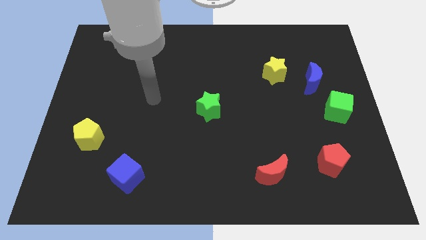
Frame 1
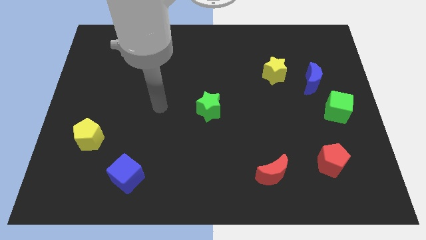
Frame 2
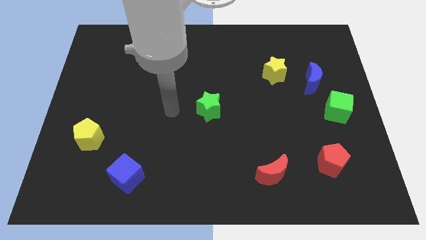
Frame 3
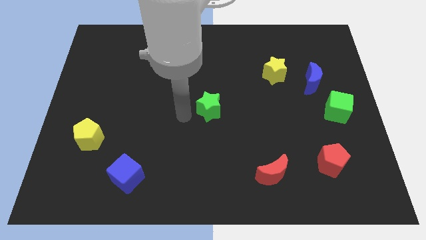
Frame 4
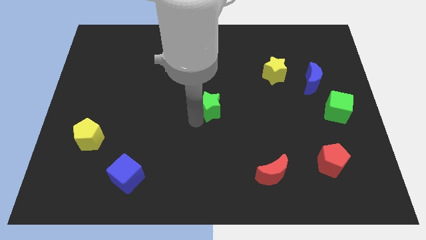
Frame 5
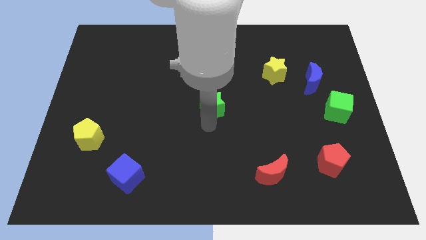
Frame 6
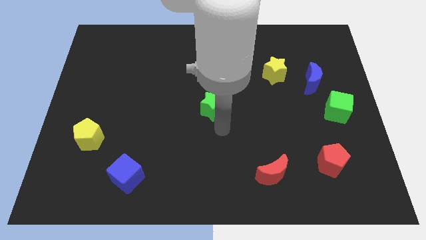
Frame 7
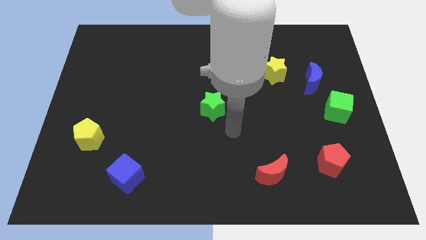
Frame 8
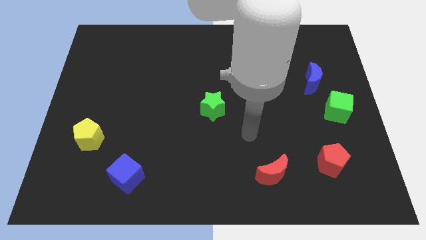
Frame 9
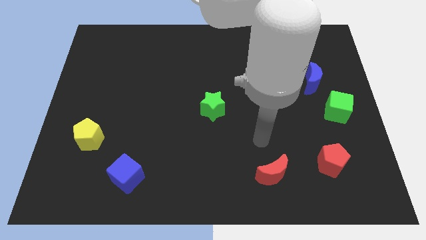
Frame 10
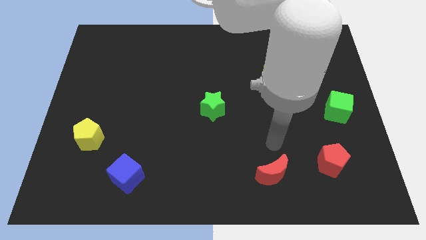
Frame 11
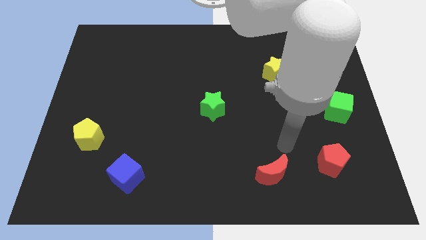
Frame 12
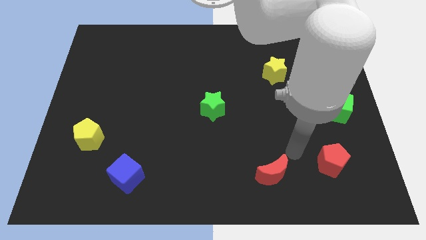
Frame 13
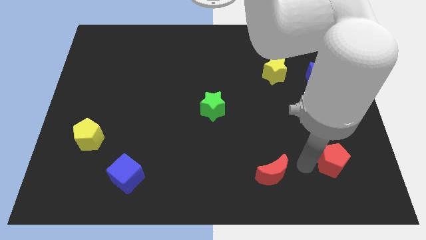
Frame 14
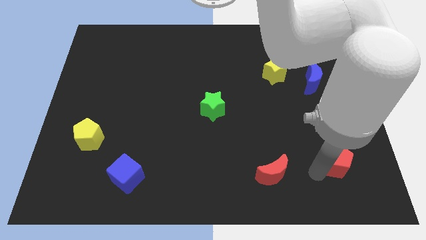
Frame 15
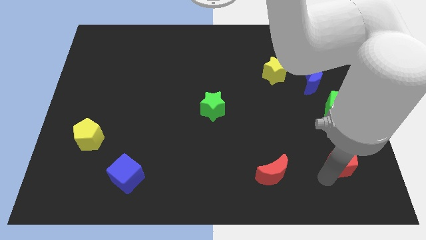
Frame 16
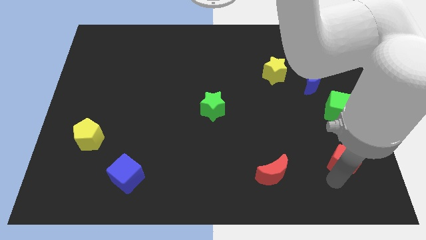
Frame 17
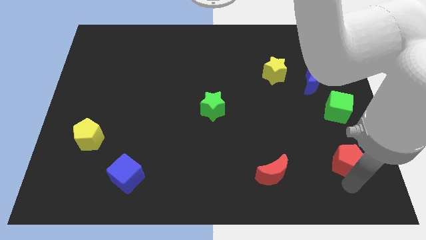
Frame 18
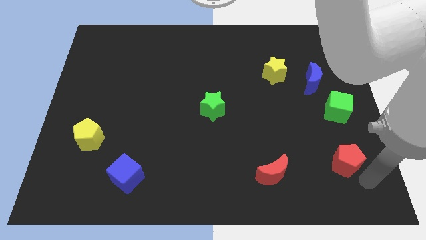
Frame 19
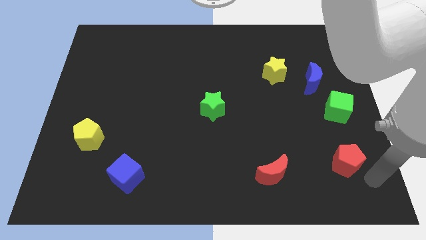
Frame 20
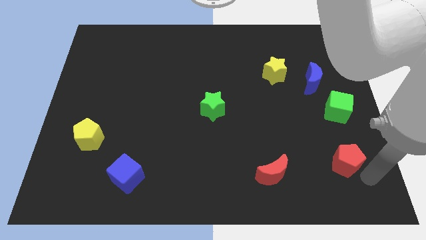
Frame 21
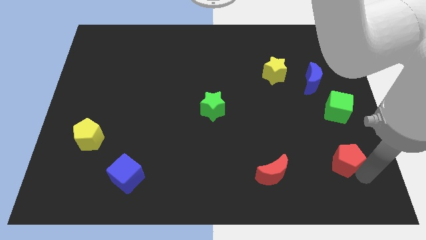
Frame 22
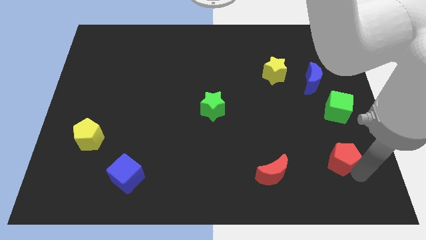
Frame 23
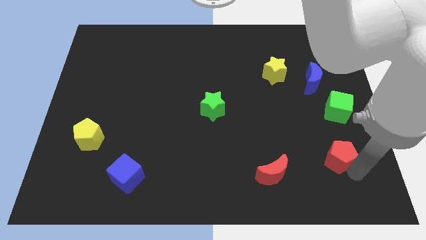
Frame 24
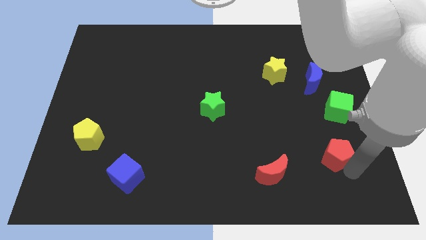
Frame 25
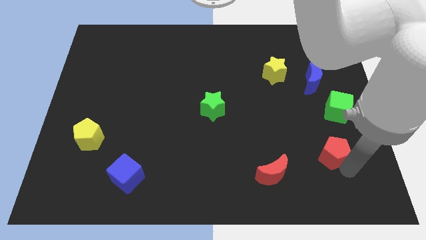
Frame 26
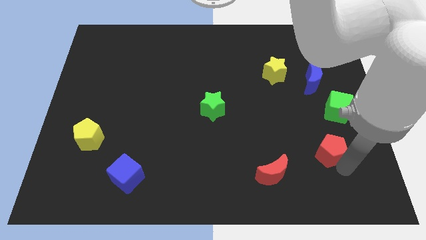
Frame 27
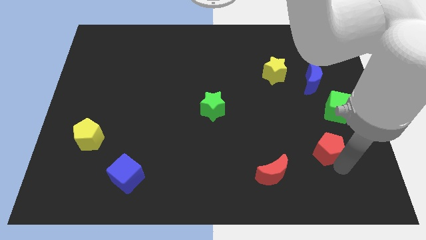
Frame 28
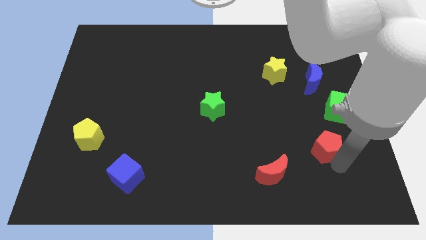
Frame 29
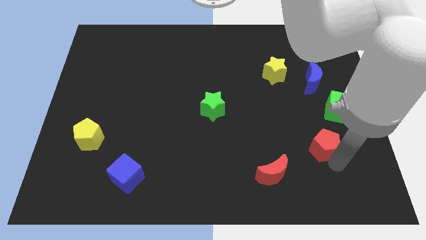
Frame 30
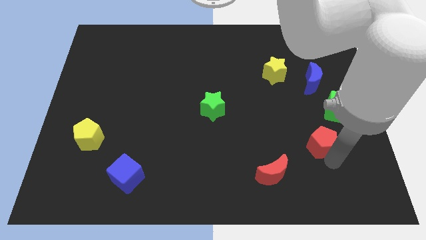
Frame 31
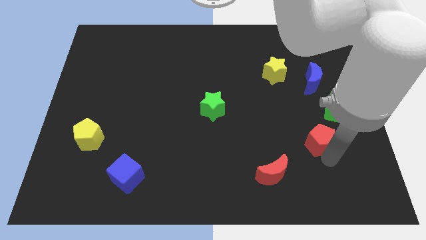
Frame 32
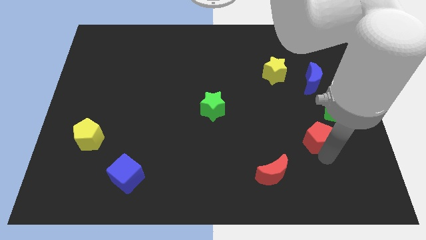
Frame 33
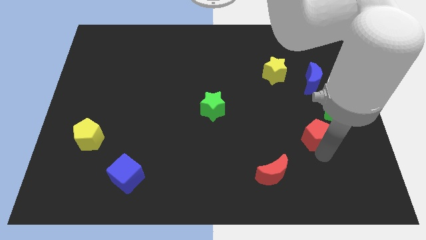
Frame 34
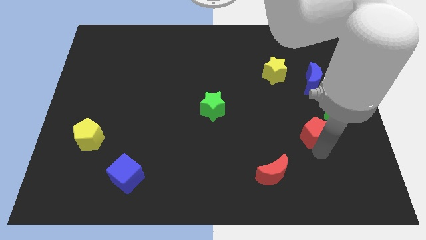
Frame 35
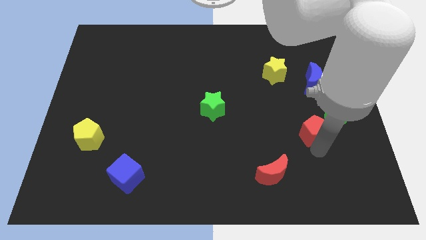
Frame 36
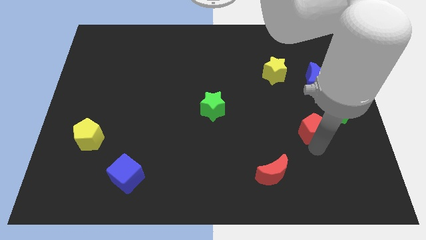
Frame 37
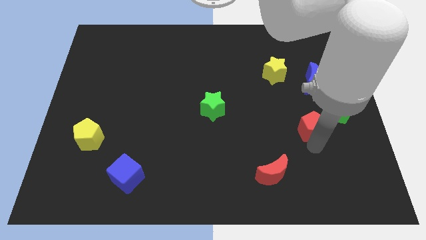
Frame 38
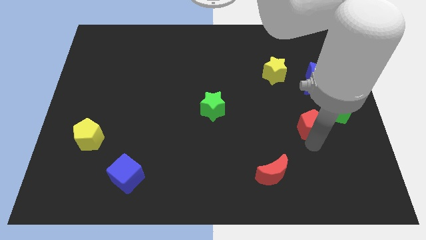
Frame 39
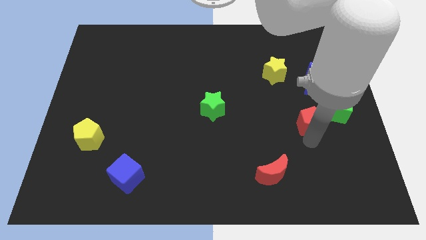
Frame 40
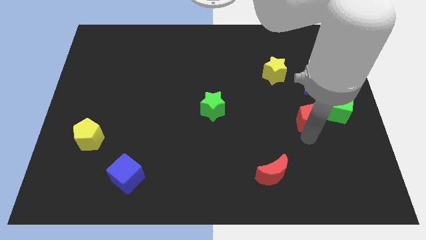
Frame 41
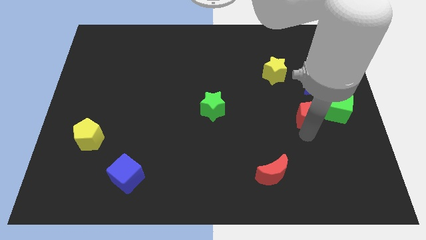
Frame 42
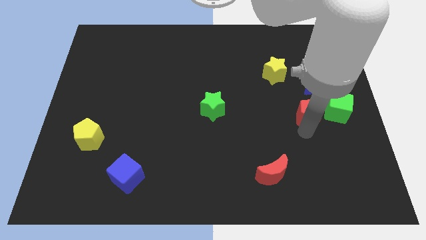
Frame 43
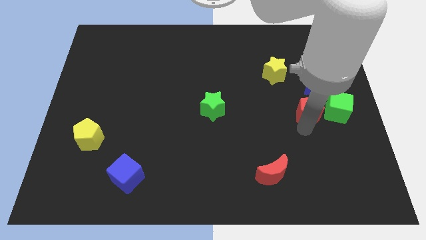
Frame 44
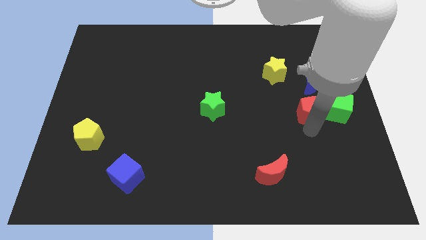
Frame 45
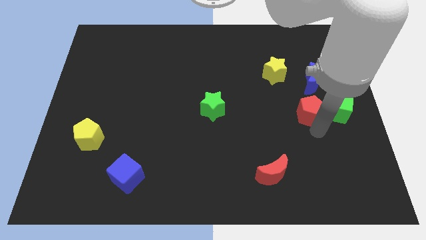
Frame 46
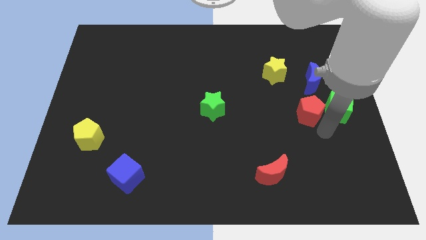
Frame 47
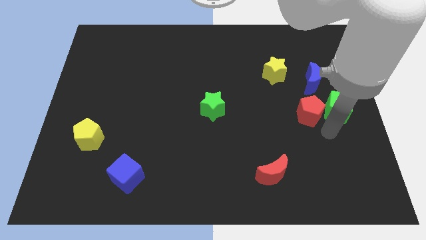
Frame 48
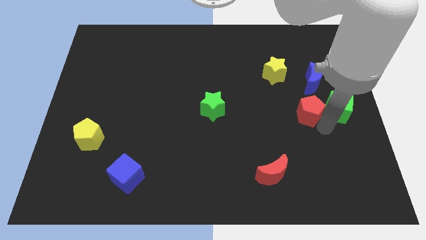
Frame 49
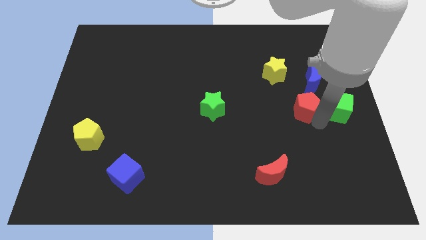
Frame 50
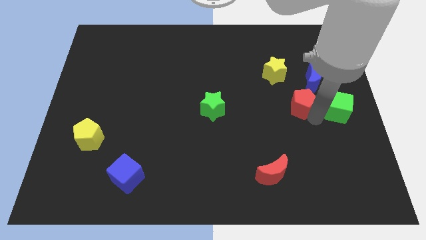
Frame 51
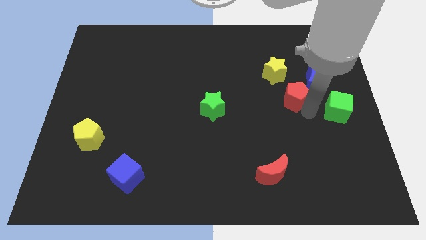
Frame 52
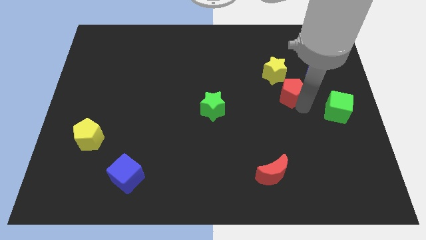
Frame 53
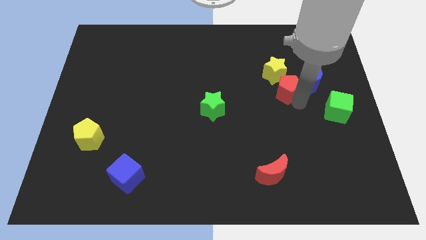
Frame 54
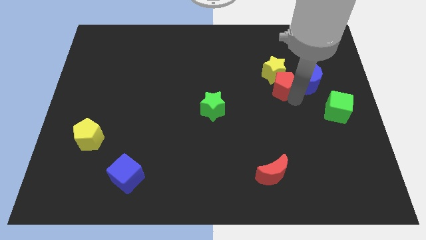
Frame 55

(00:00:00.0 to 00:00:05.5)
move the red pentagon close to the yellow star

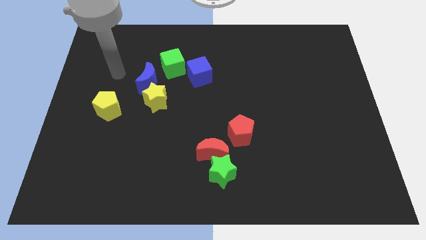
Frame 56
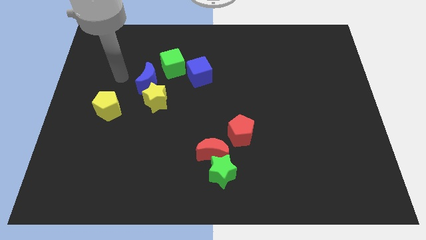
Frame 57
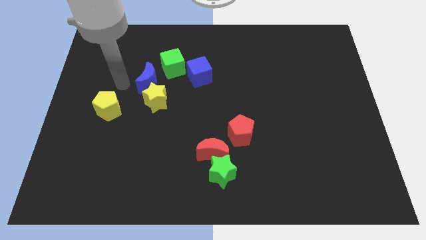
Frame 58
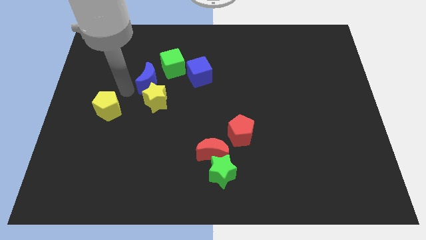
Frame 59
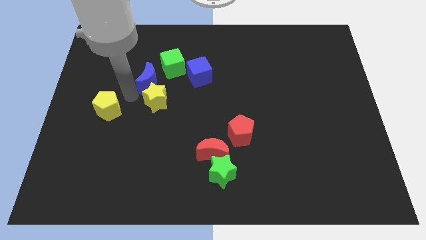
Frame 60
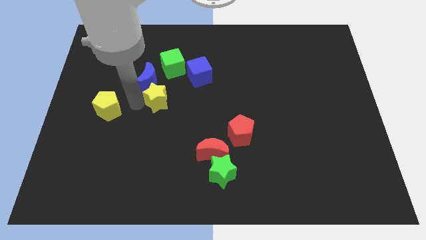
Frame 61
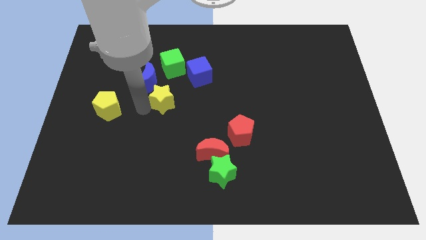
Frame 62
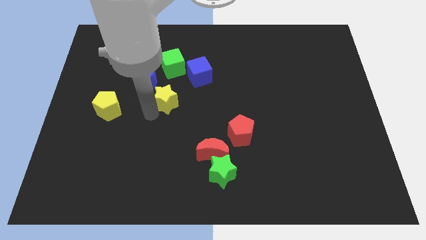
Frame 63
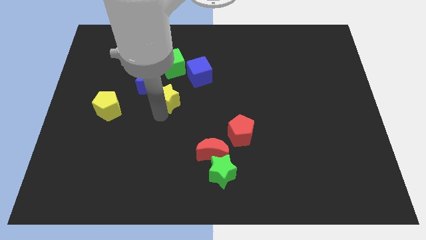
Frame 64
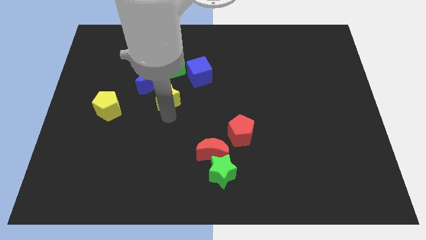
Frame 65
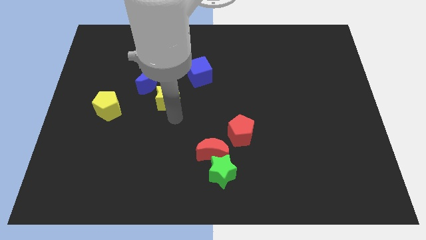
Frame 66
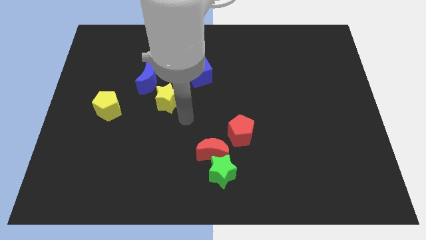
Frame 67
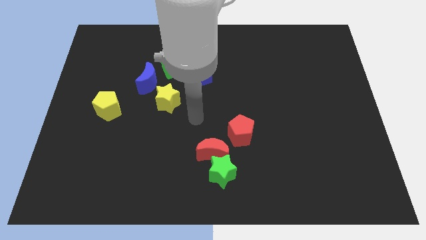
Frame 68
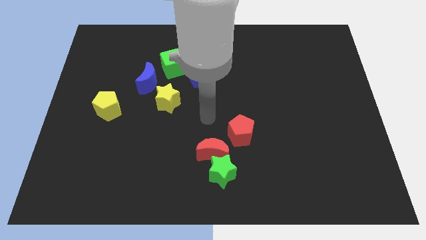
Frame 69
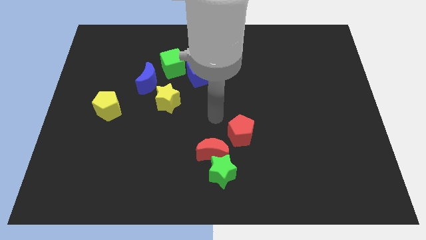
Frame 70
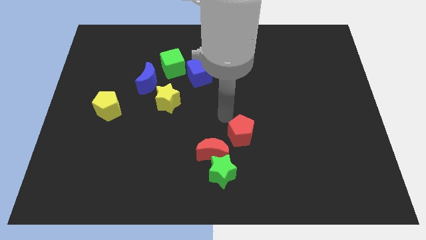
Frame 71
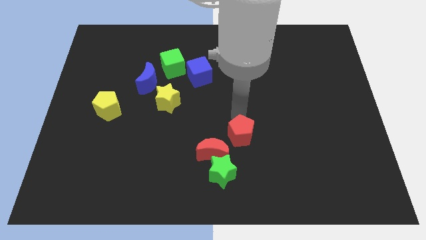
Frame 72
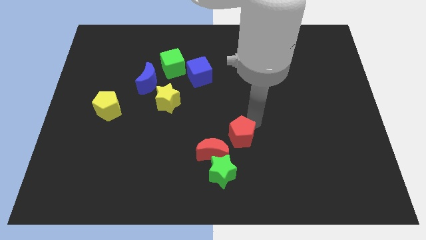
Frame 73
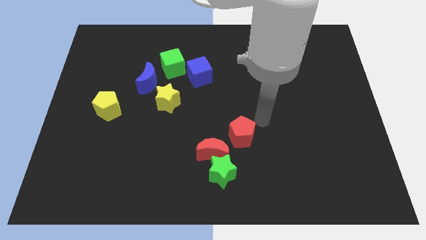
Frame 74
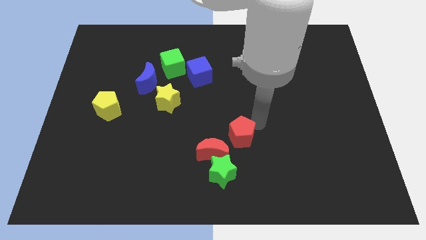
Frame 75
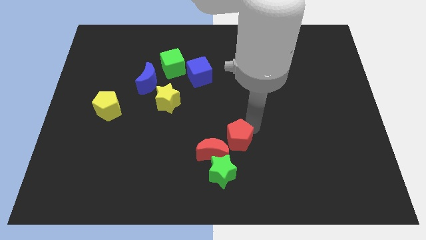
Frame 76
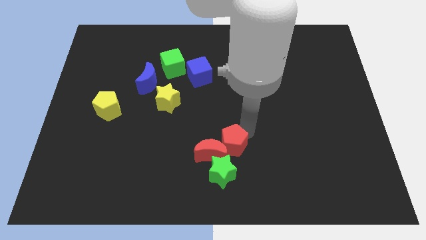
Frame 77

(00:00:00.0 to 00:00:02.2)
slide the red pentagon to the red moon
